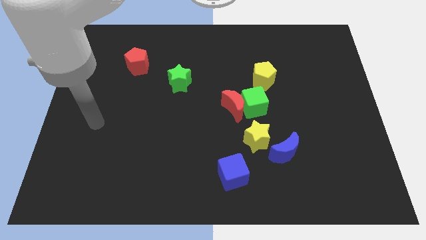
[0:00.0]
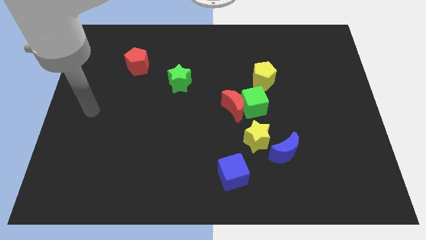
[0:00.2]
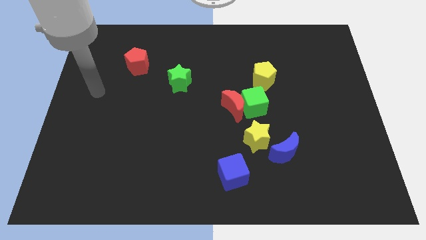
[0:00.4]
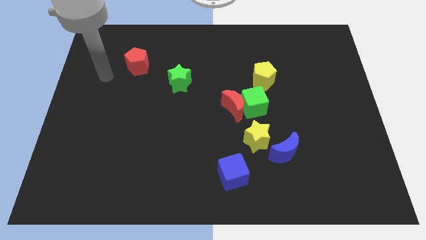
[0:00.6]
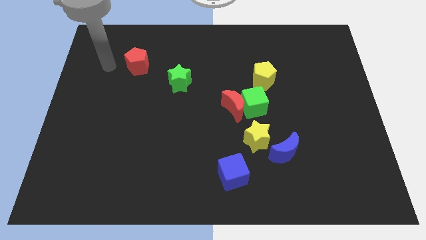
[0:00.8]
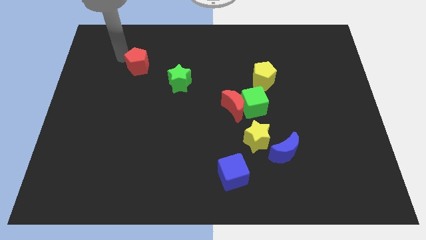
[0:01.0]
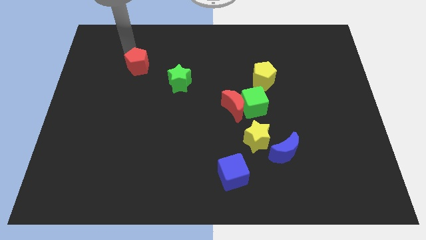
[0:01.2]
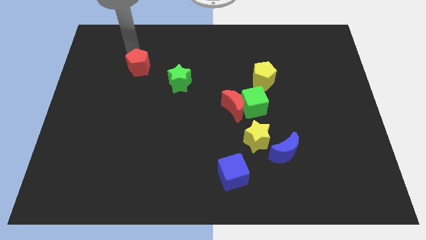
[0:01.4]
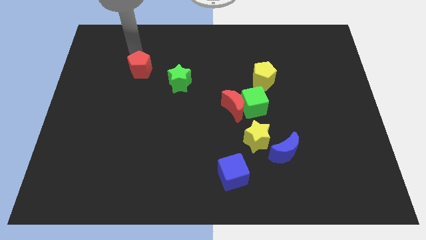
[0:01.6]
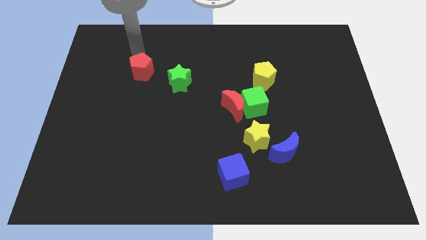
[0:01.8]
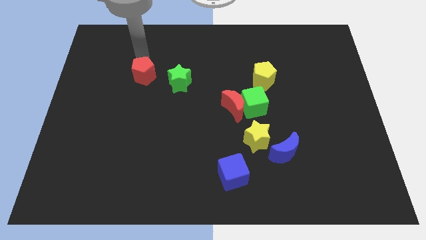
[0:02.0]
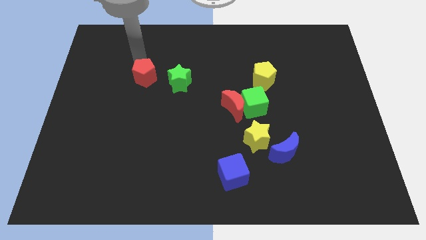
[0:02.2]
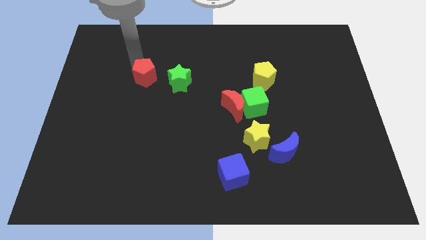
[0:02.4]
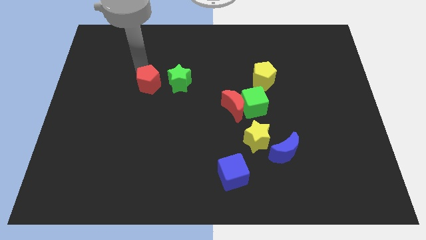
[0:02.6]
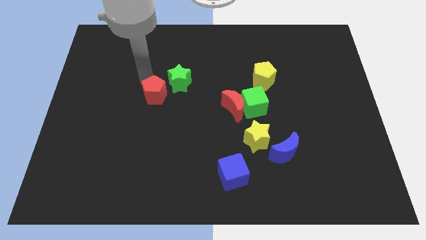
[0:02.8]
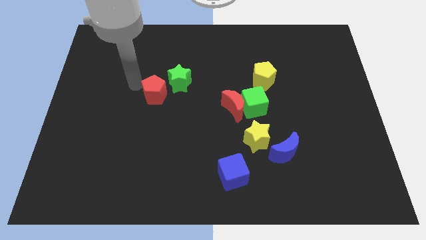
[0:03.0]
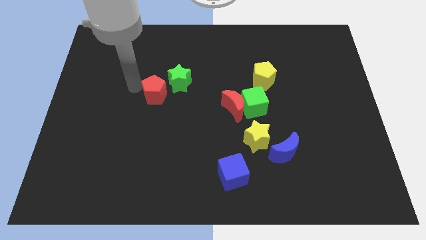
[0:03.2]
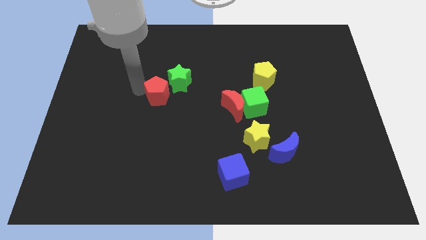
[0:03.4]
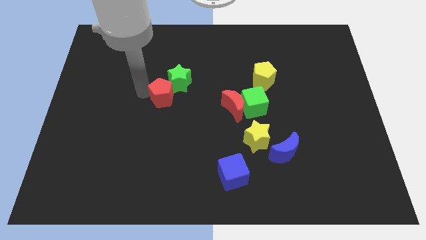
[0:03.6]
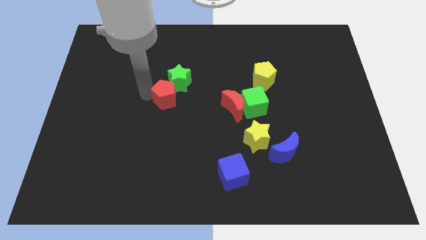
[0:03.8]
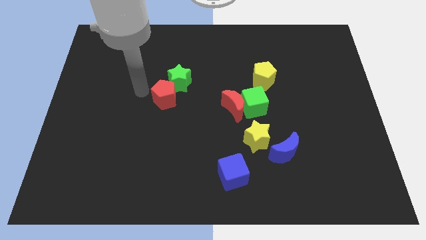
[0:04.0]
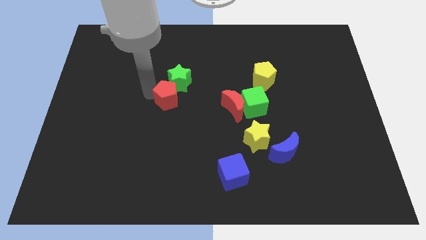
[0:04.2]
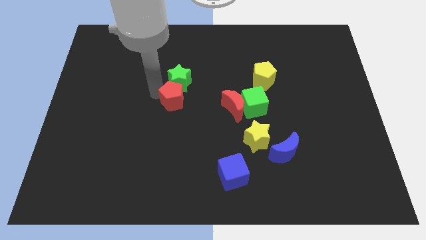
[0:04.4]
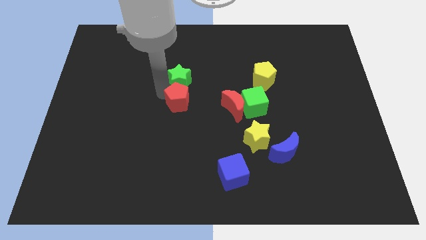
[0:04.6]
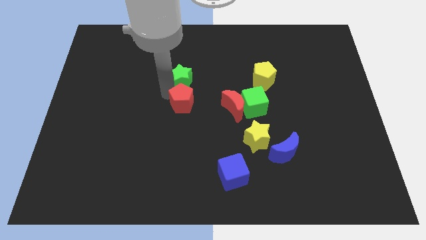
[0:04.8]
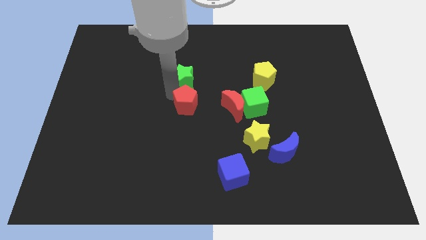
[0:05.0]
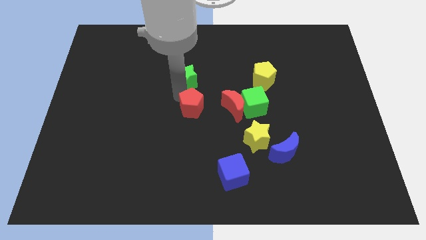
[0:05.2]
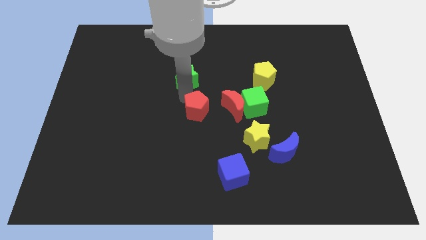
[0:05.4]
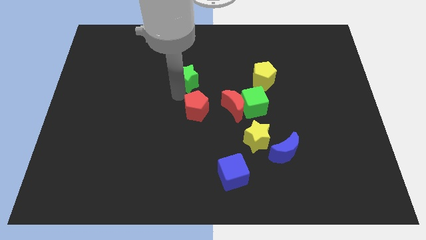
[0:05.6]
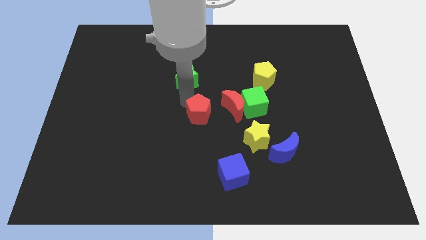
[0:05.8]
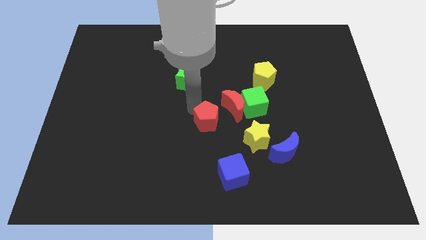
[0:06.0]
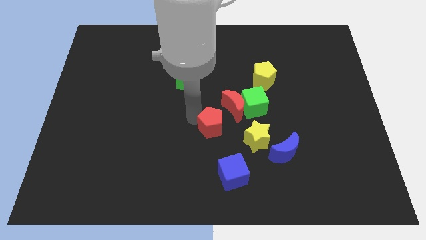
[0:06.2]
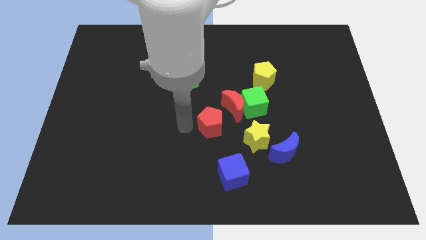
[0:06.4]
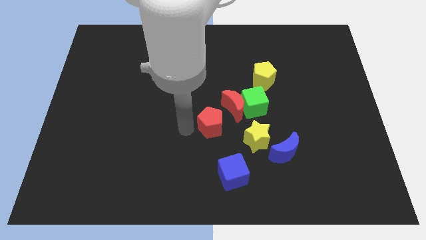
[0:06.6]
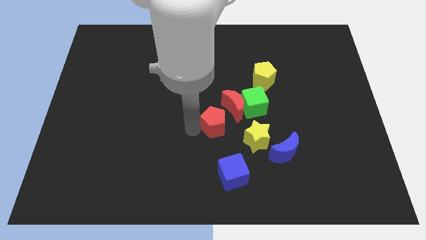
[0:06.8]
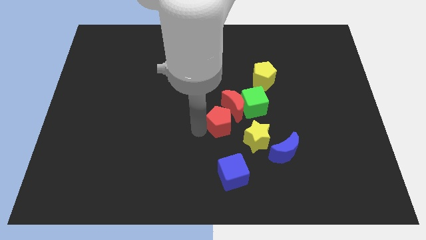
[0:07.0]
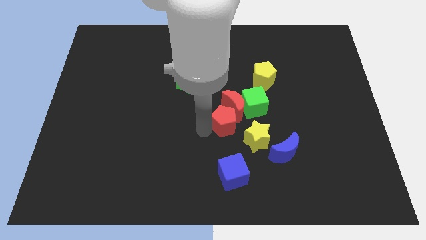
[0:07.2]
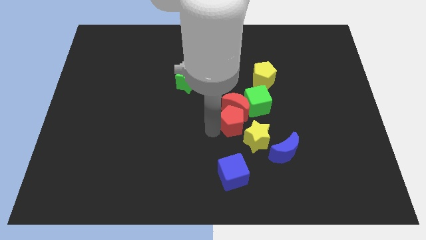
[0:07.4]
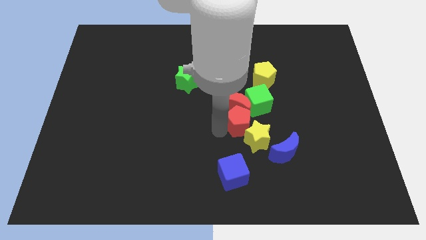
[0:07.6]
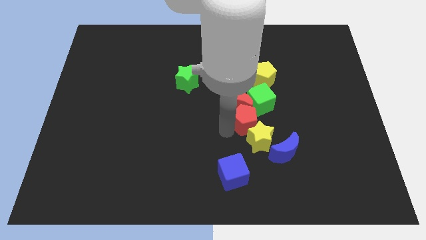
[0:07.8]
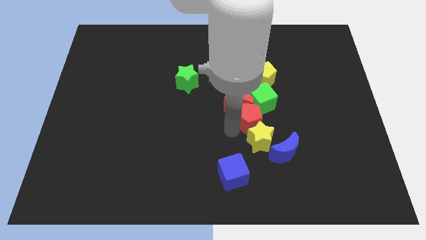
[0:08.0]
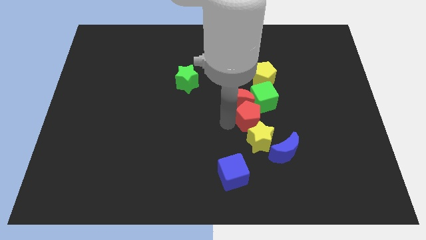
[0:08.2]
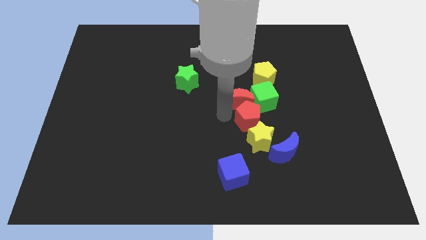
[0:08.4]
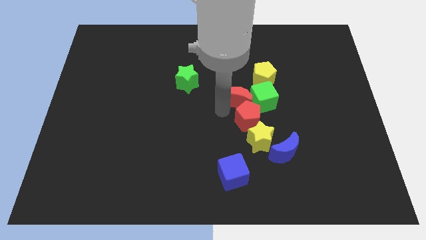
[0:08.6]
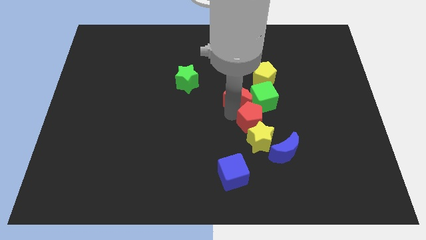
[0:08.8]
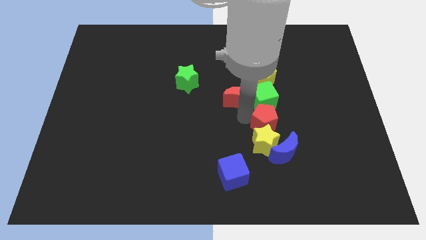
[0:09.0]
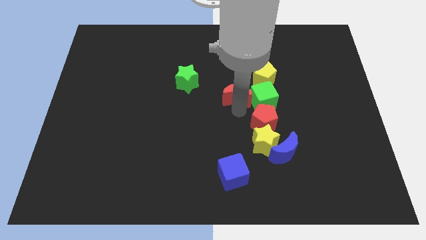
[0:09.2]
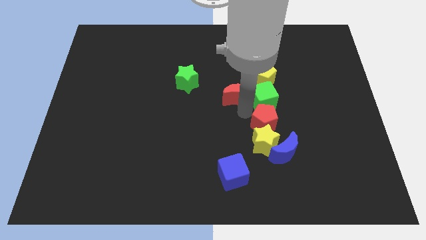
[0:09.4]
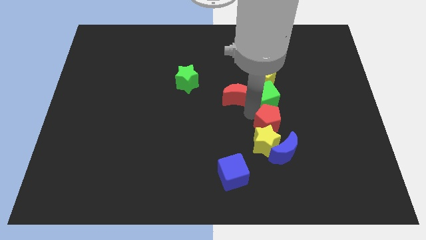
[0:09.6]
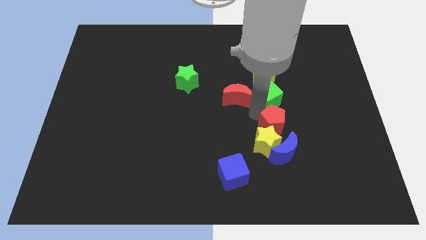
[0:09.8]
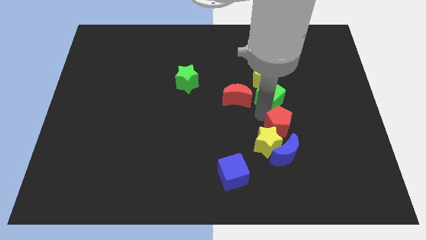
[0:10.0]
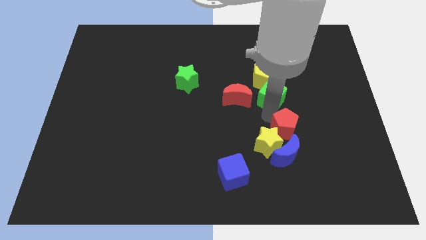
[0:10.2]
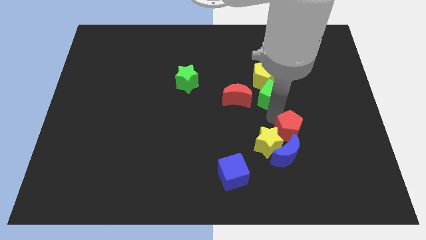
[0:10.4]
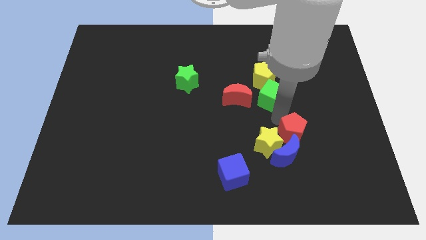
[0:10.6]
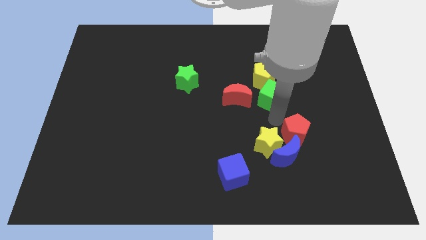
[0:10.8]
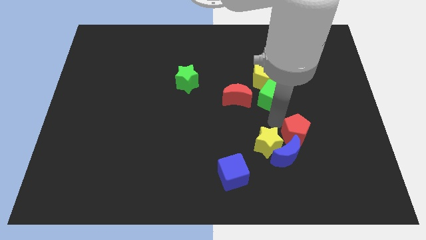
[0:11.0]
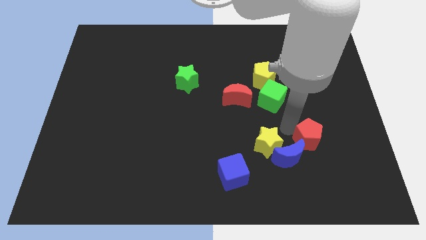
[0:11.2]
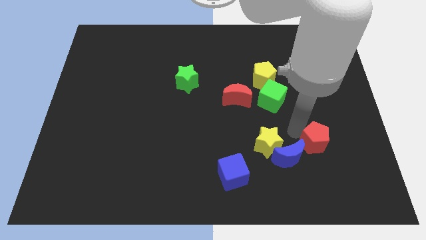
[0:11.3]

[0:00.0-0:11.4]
put the red pentagon to the right of the blue moon

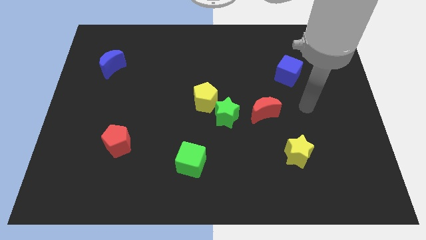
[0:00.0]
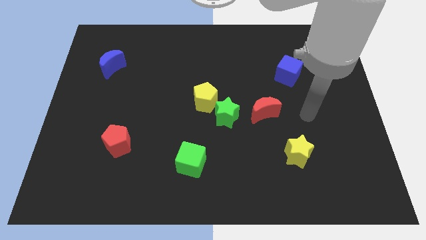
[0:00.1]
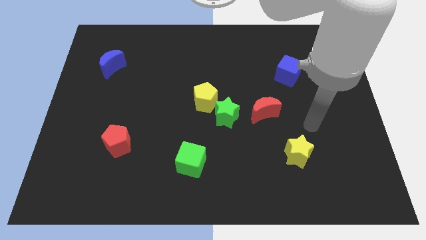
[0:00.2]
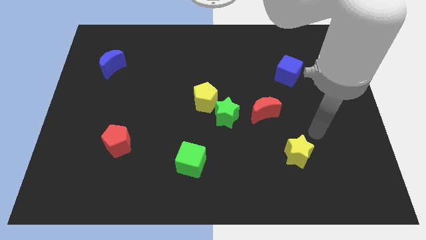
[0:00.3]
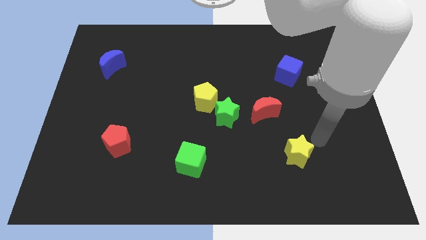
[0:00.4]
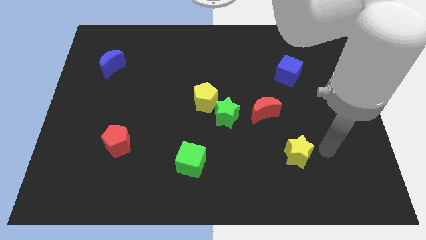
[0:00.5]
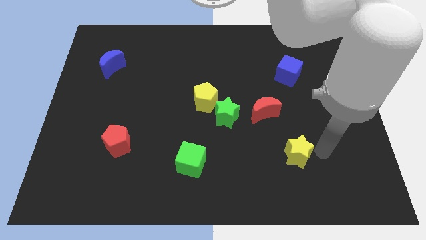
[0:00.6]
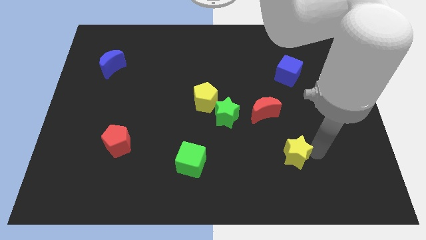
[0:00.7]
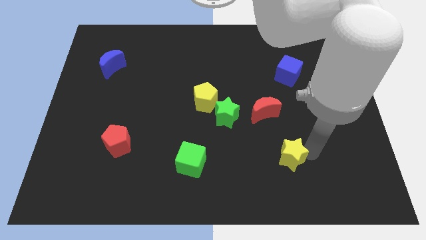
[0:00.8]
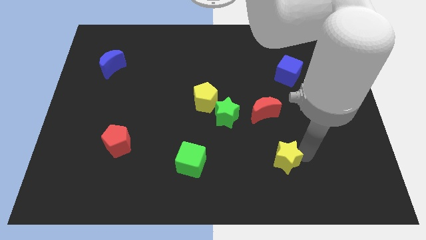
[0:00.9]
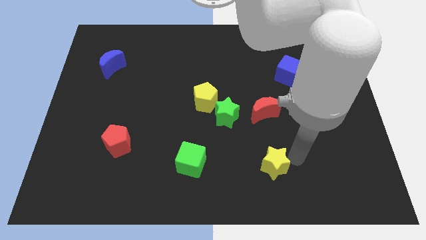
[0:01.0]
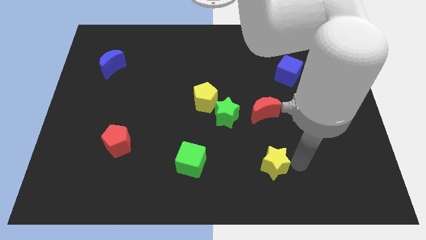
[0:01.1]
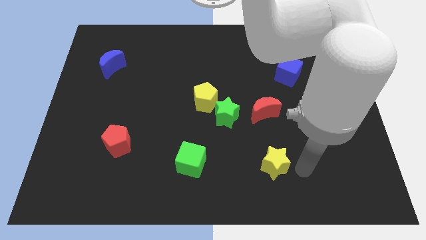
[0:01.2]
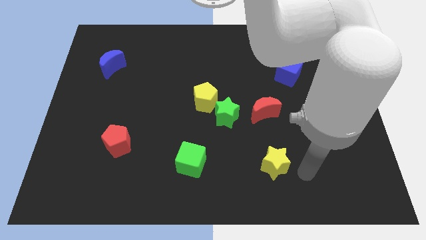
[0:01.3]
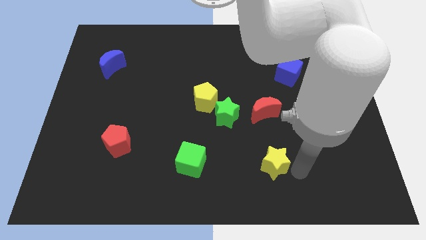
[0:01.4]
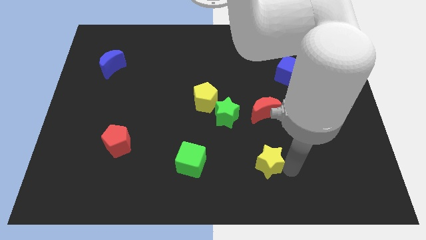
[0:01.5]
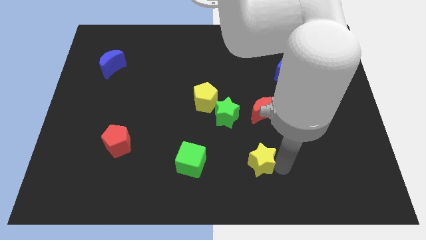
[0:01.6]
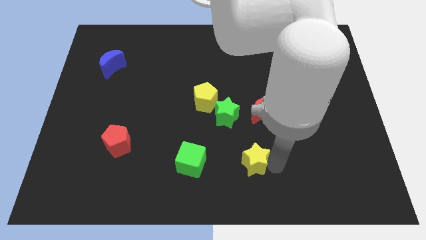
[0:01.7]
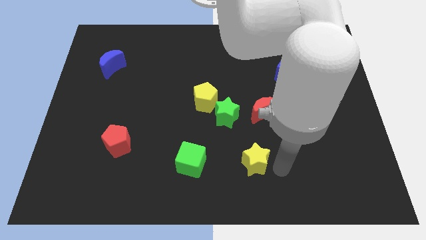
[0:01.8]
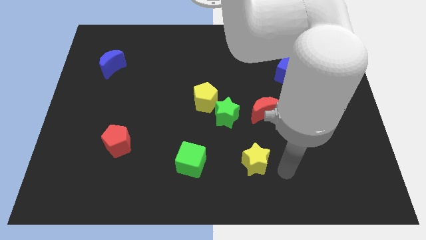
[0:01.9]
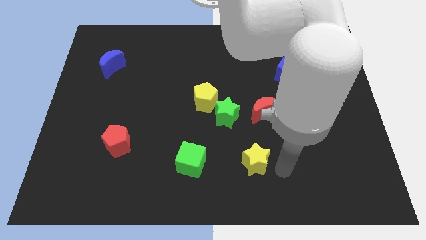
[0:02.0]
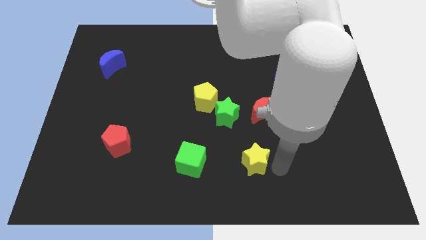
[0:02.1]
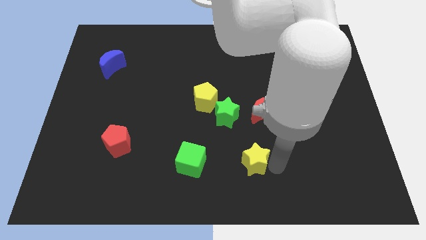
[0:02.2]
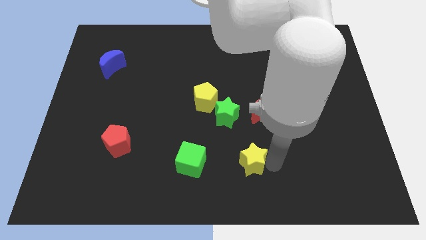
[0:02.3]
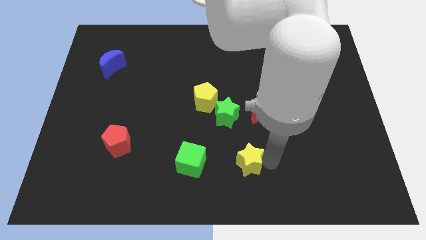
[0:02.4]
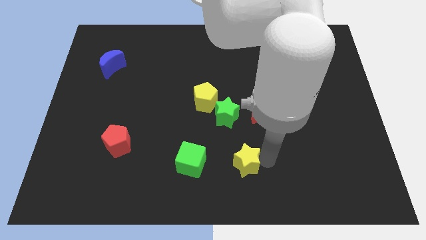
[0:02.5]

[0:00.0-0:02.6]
push the yellow star below the green star
